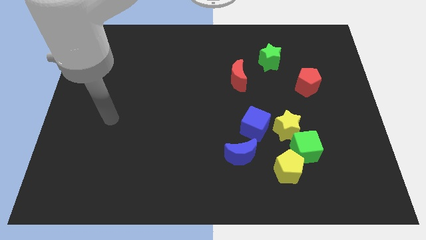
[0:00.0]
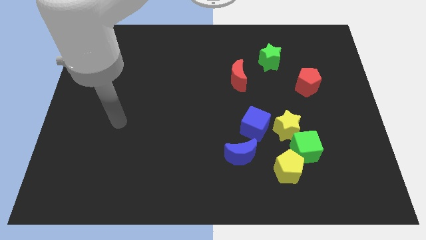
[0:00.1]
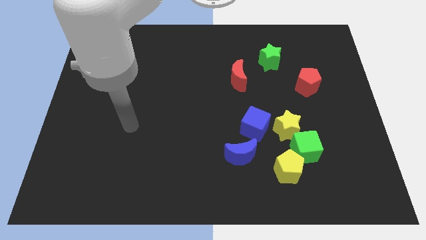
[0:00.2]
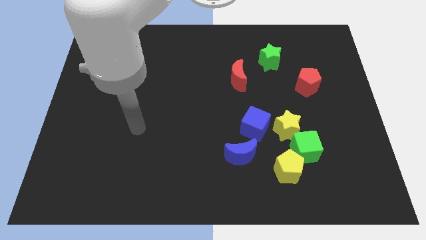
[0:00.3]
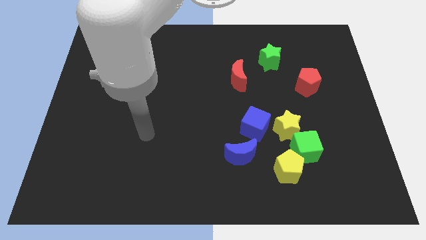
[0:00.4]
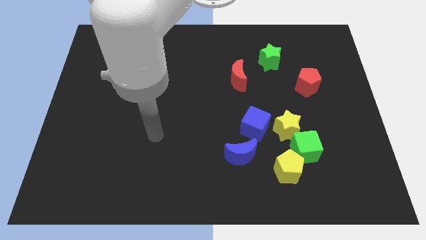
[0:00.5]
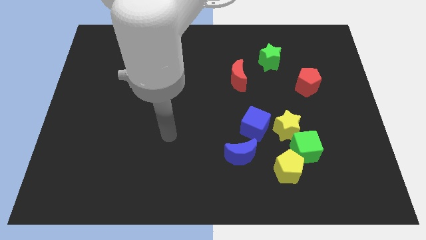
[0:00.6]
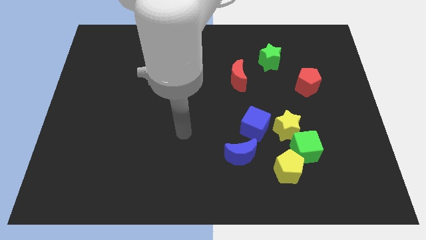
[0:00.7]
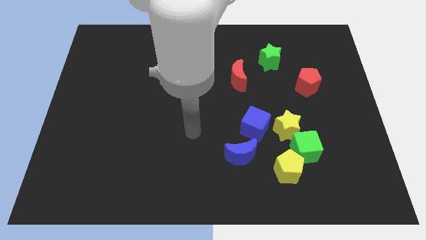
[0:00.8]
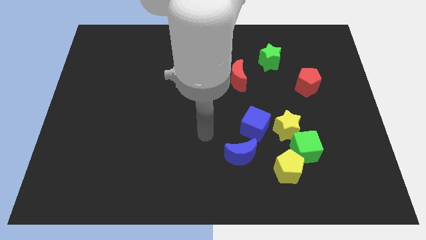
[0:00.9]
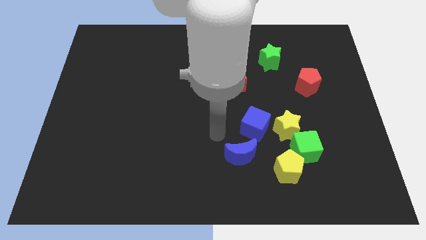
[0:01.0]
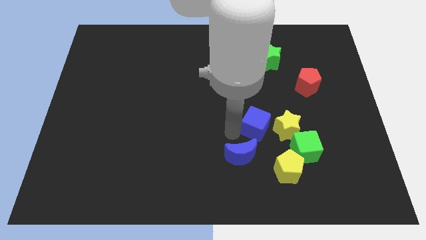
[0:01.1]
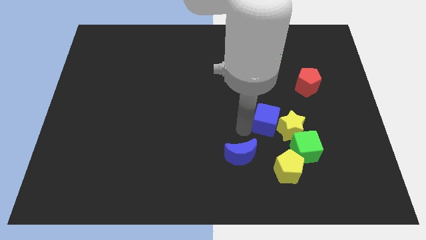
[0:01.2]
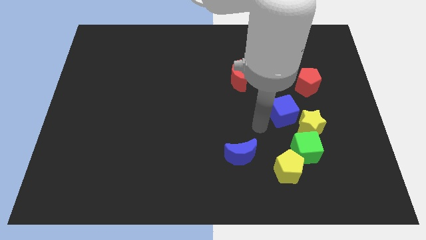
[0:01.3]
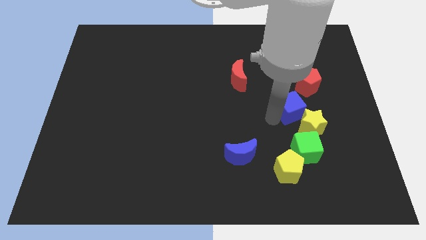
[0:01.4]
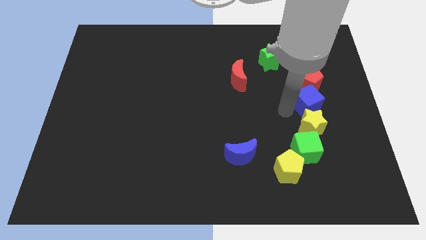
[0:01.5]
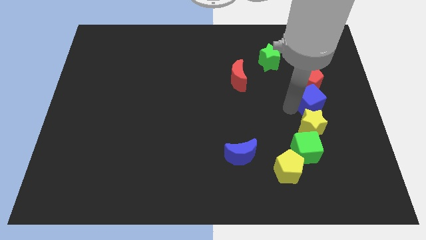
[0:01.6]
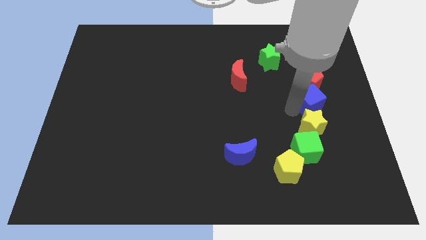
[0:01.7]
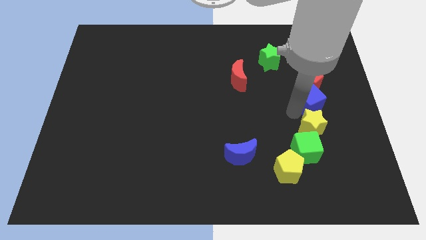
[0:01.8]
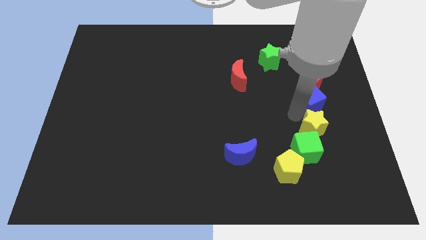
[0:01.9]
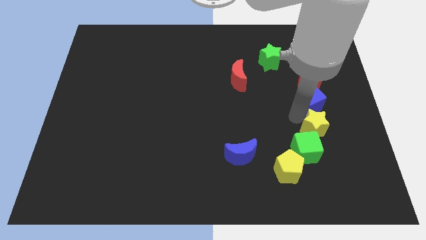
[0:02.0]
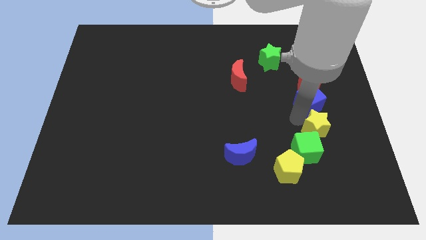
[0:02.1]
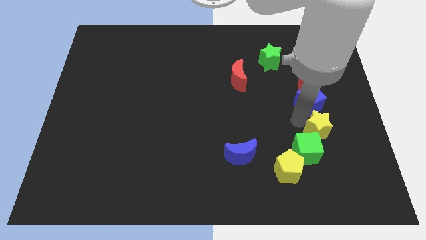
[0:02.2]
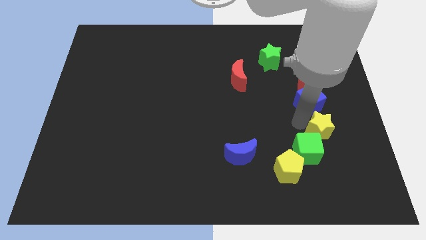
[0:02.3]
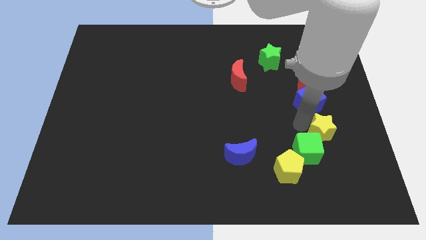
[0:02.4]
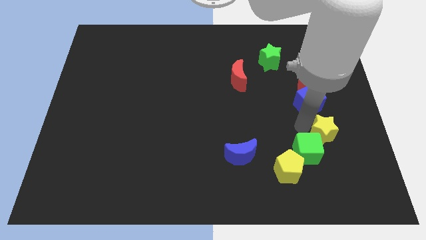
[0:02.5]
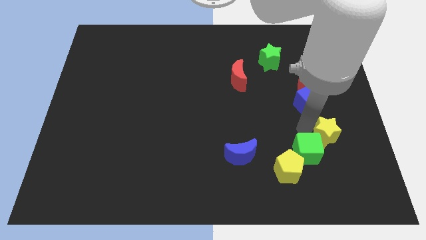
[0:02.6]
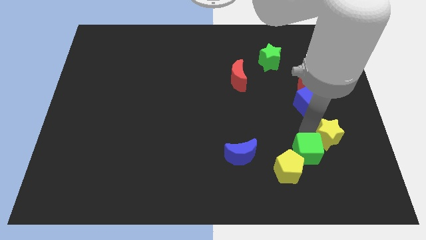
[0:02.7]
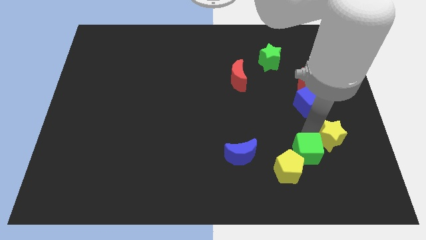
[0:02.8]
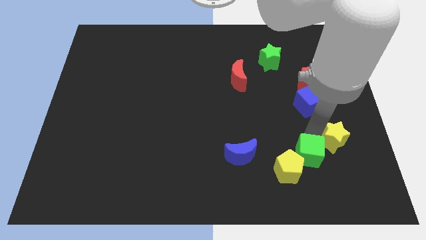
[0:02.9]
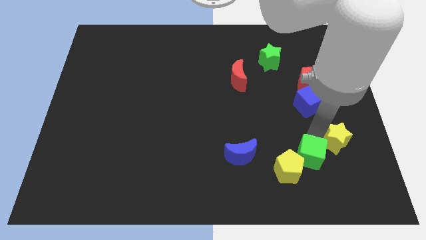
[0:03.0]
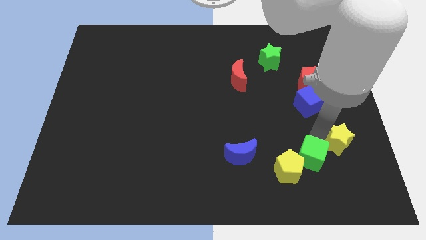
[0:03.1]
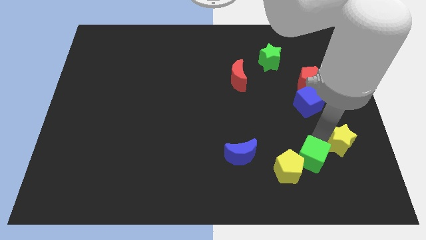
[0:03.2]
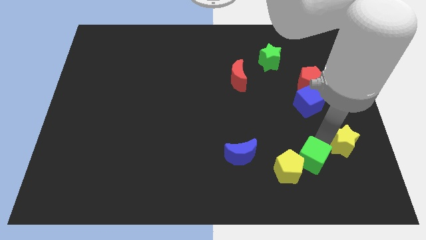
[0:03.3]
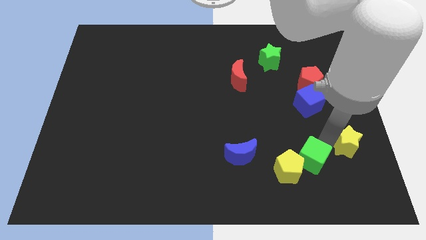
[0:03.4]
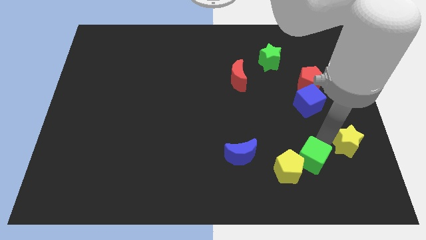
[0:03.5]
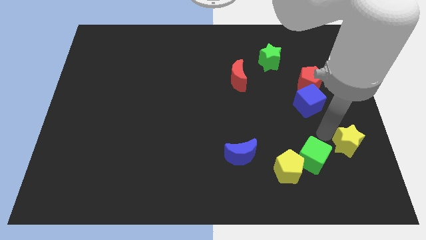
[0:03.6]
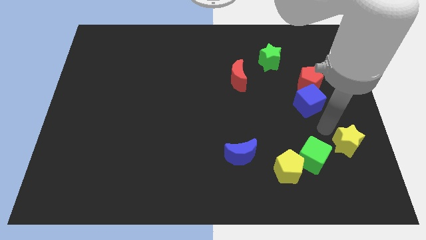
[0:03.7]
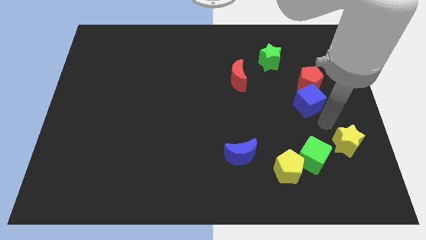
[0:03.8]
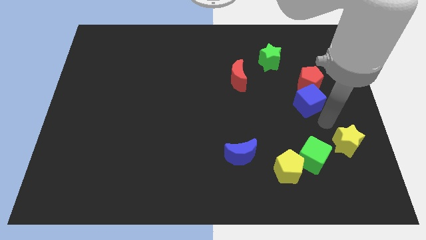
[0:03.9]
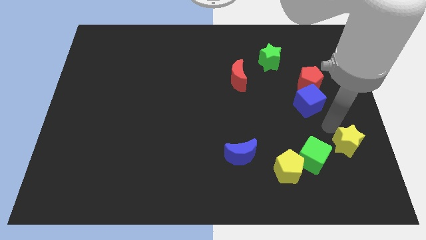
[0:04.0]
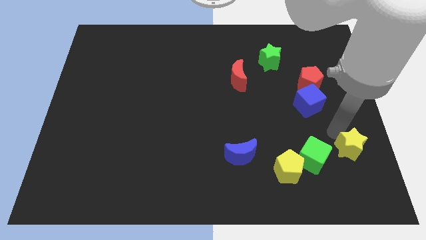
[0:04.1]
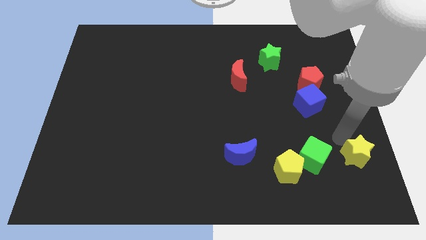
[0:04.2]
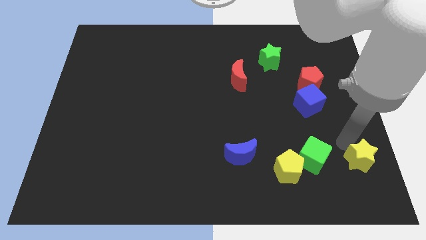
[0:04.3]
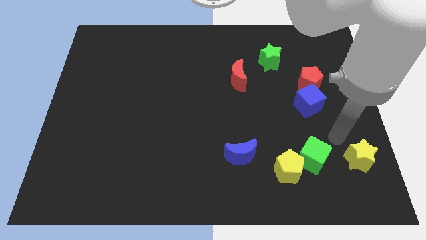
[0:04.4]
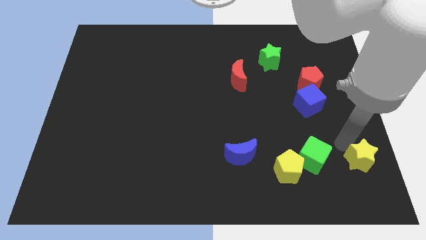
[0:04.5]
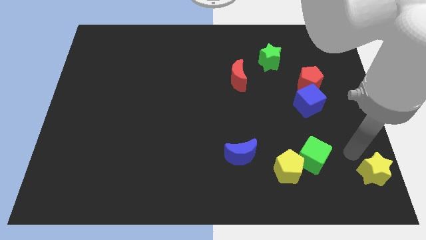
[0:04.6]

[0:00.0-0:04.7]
slide the yellow star to the bottom right of the board

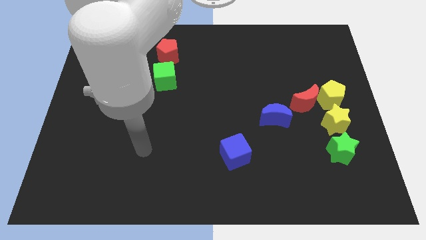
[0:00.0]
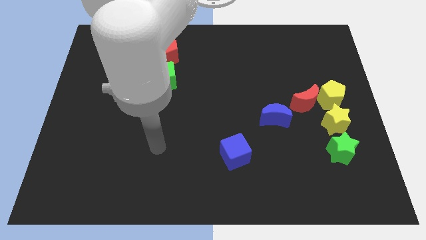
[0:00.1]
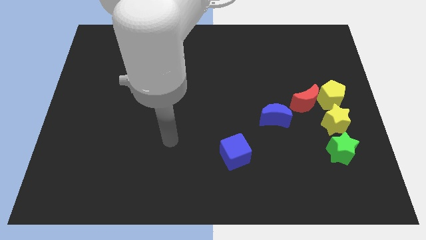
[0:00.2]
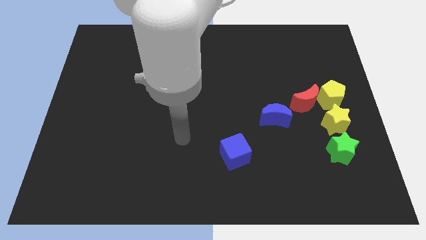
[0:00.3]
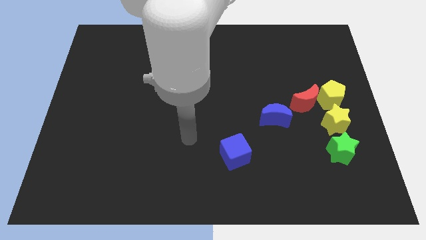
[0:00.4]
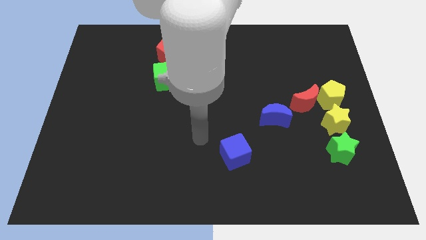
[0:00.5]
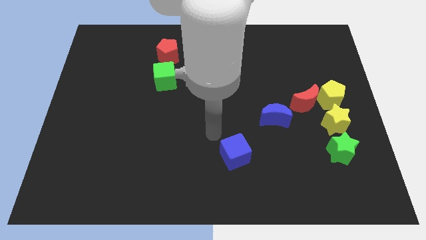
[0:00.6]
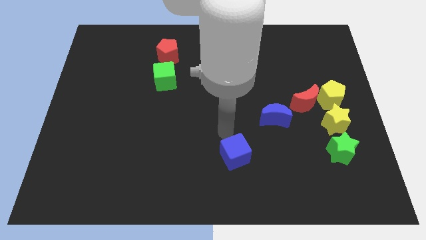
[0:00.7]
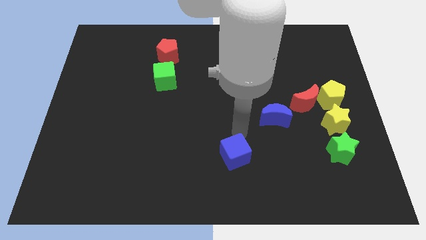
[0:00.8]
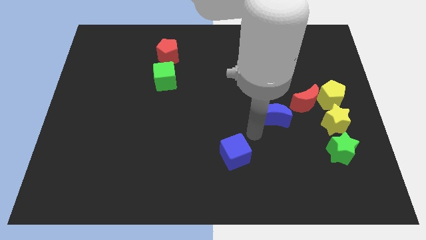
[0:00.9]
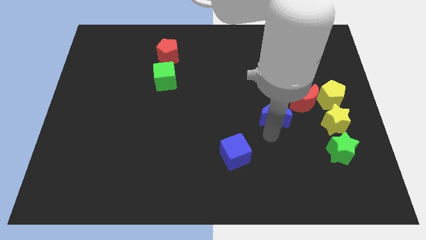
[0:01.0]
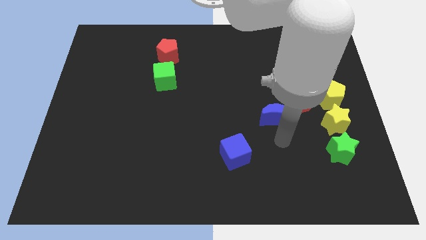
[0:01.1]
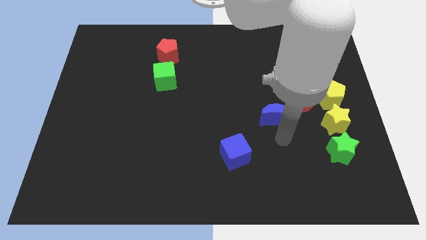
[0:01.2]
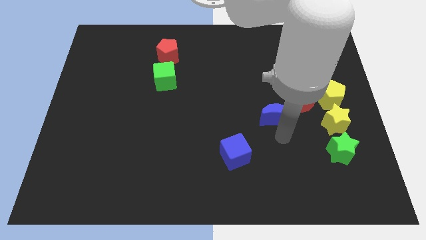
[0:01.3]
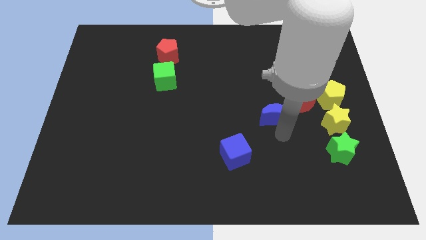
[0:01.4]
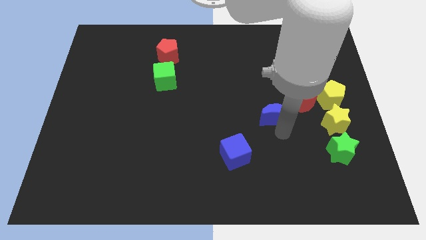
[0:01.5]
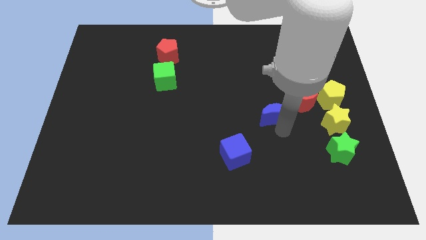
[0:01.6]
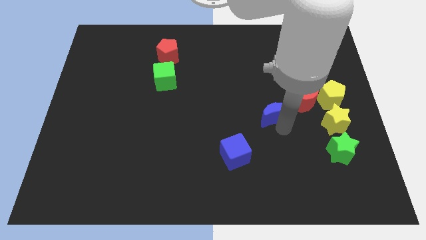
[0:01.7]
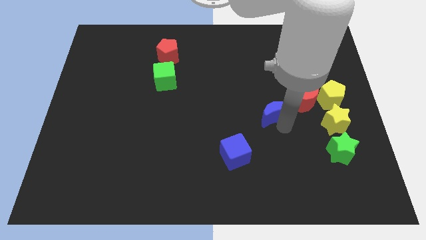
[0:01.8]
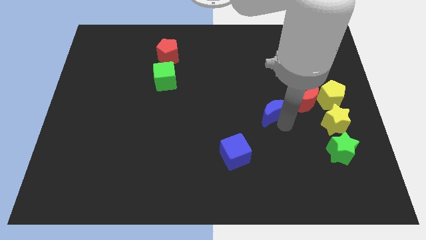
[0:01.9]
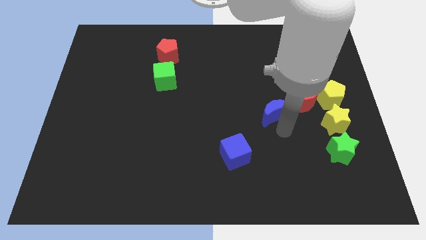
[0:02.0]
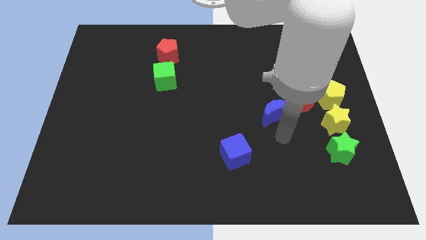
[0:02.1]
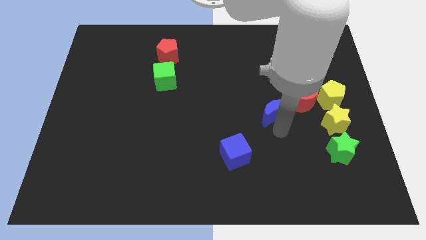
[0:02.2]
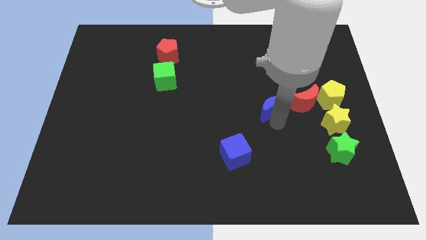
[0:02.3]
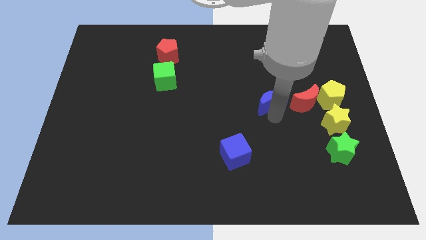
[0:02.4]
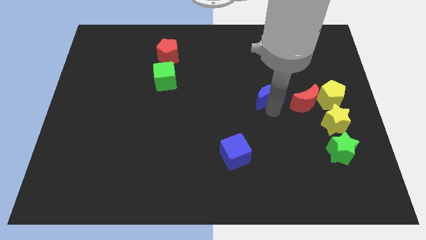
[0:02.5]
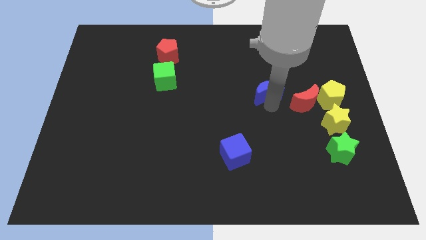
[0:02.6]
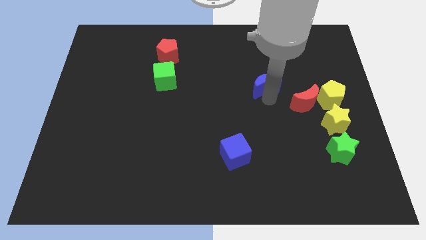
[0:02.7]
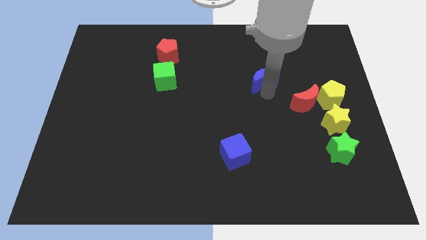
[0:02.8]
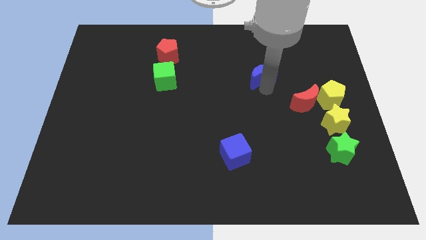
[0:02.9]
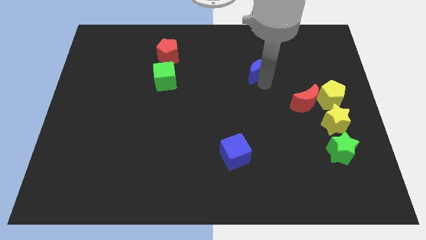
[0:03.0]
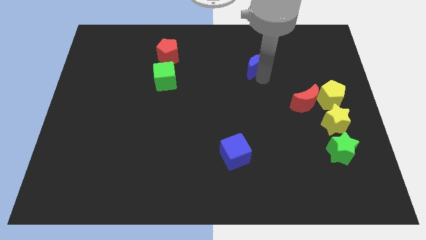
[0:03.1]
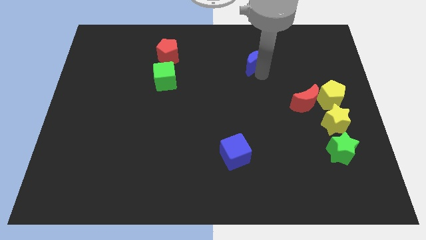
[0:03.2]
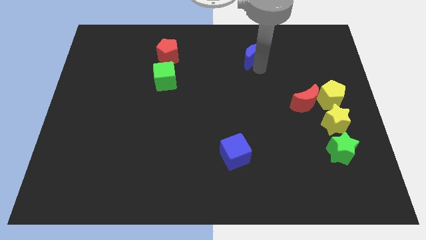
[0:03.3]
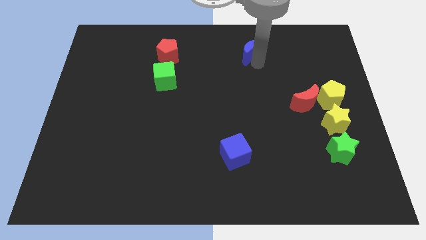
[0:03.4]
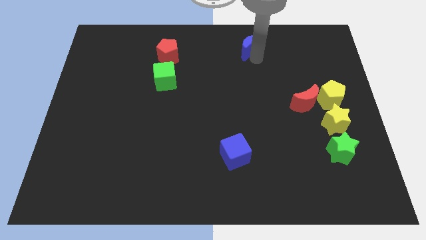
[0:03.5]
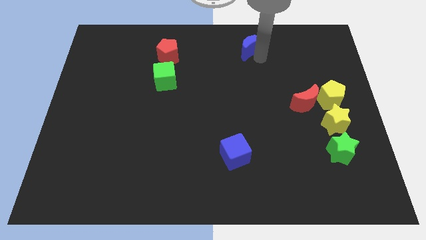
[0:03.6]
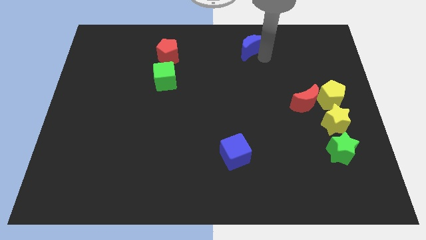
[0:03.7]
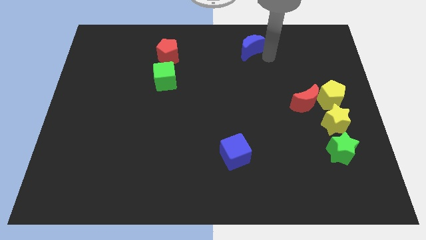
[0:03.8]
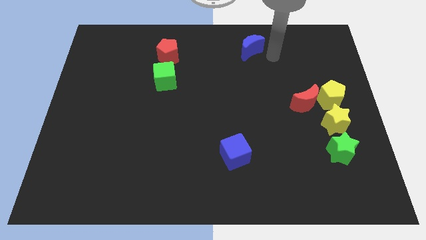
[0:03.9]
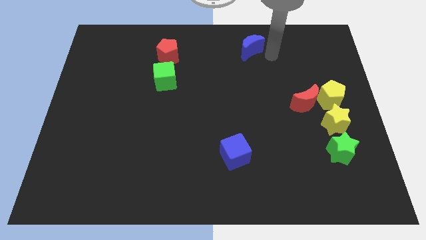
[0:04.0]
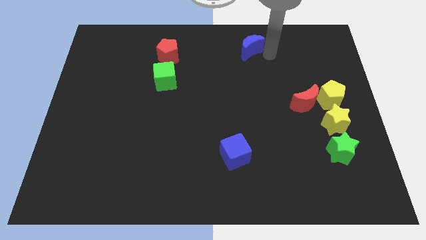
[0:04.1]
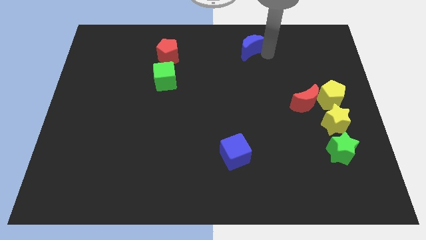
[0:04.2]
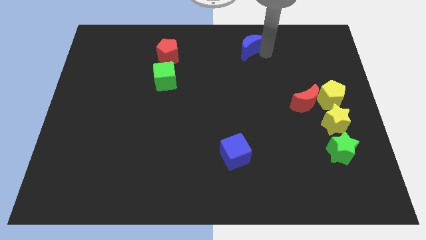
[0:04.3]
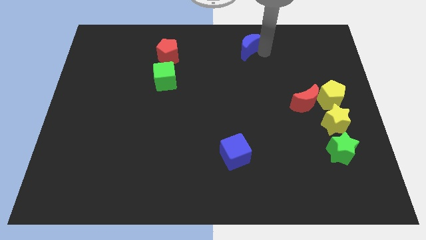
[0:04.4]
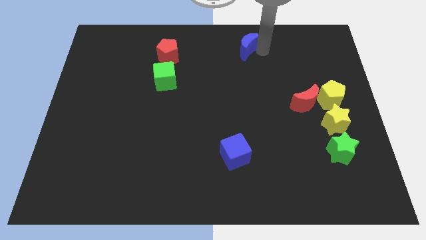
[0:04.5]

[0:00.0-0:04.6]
slide the blue moon to the top
